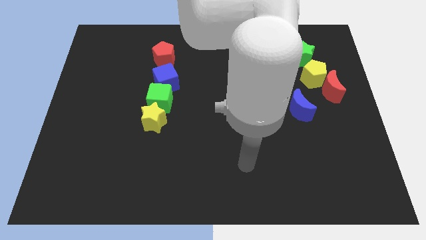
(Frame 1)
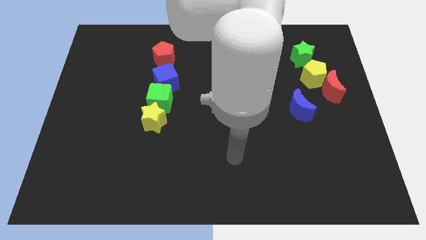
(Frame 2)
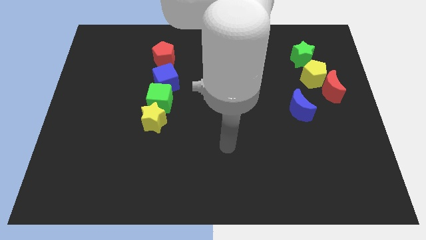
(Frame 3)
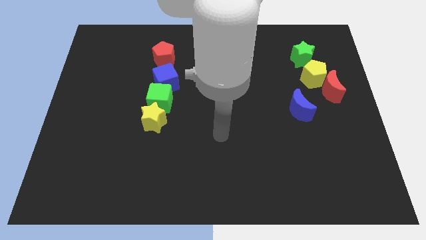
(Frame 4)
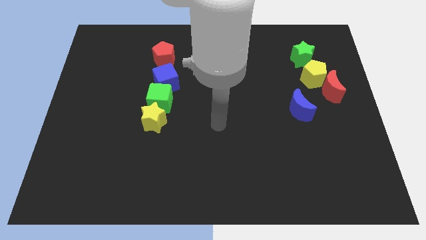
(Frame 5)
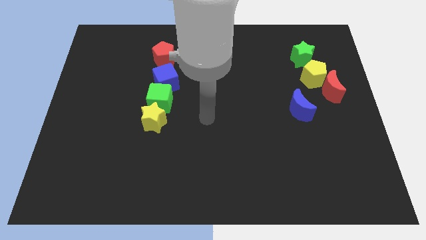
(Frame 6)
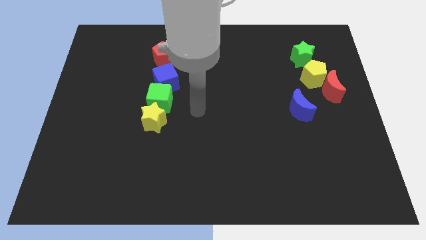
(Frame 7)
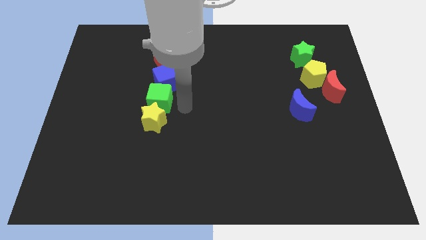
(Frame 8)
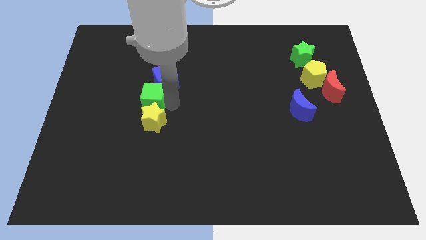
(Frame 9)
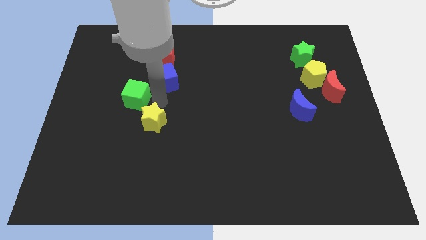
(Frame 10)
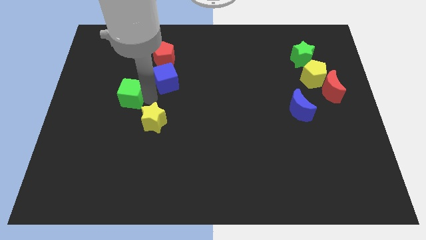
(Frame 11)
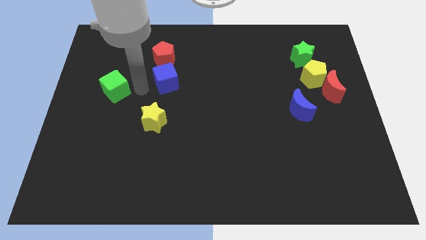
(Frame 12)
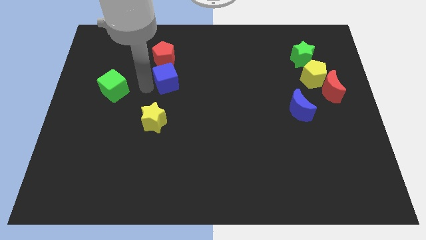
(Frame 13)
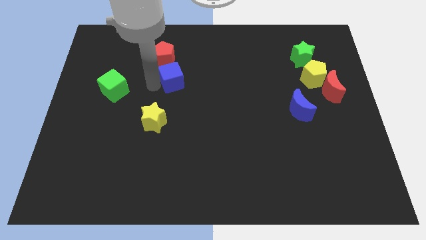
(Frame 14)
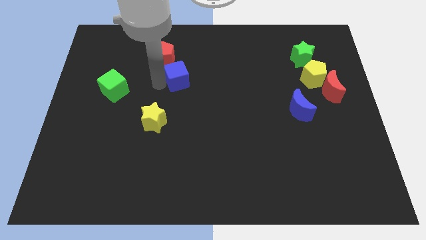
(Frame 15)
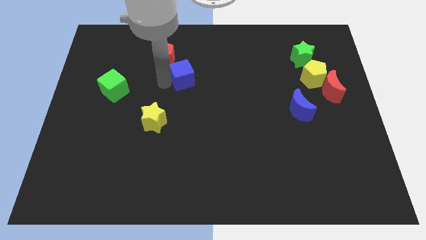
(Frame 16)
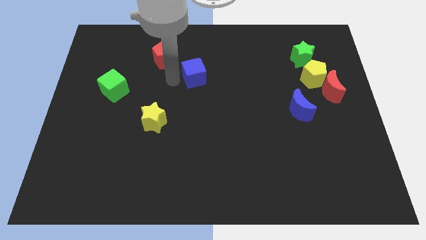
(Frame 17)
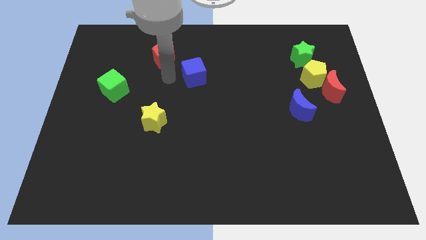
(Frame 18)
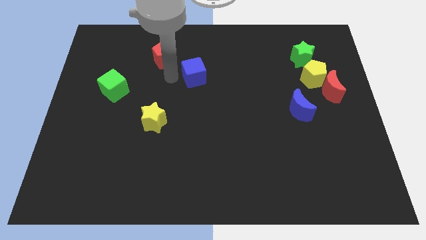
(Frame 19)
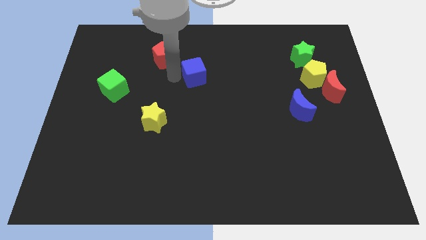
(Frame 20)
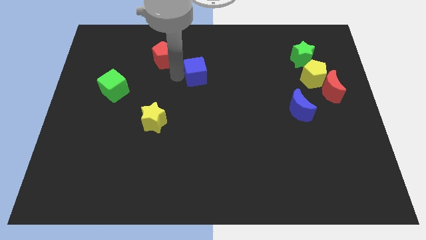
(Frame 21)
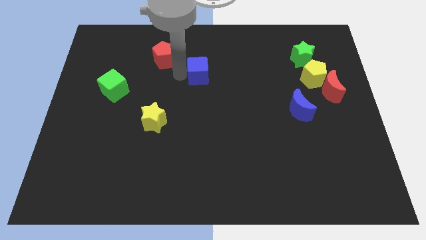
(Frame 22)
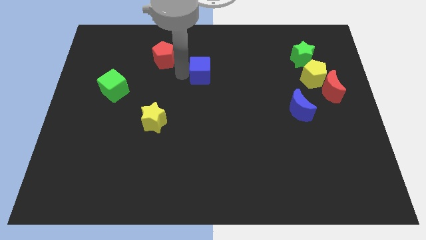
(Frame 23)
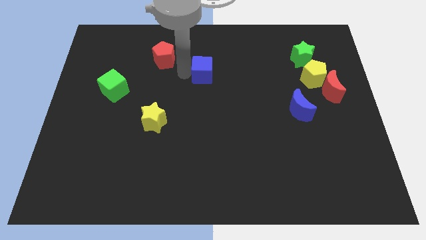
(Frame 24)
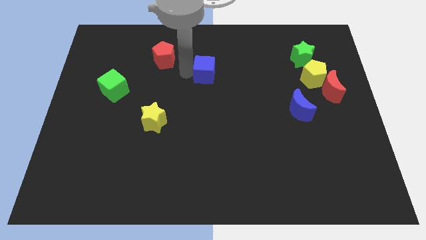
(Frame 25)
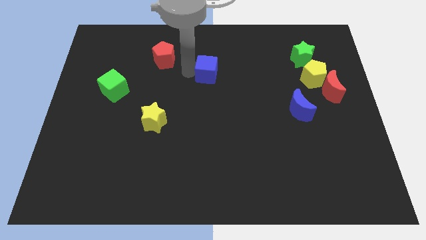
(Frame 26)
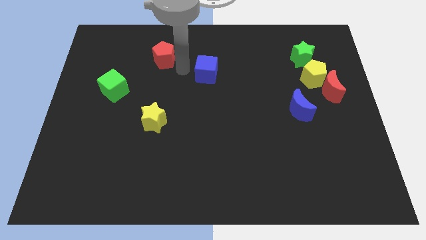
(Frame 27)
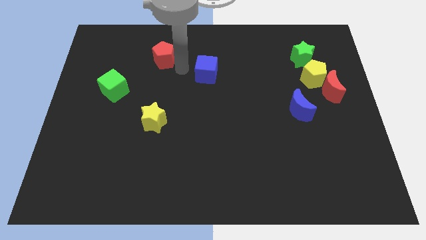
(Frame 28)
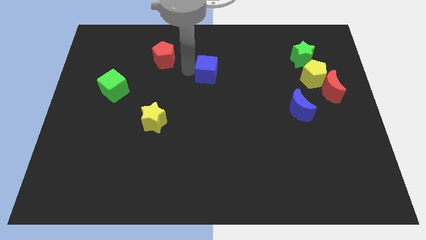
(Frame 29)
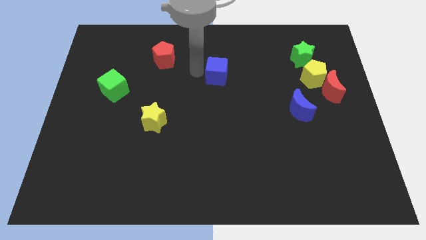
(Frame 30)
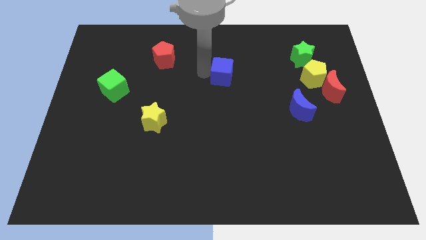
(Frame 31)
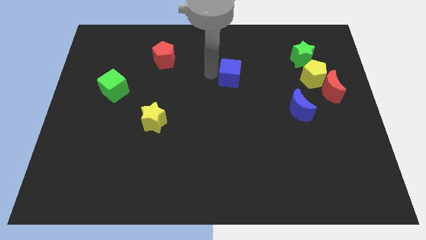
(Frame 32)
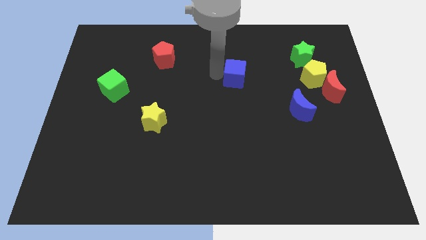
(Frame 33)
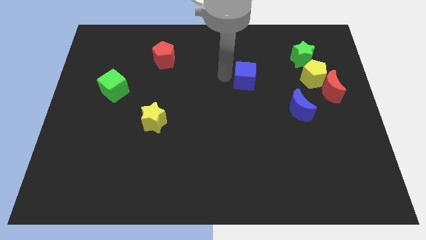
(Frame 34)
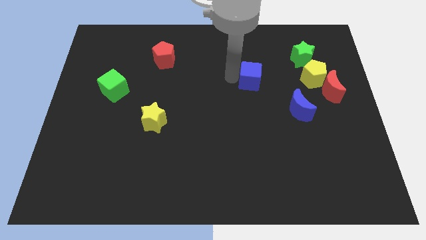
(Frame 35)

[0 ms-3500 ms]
push the blue cube right

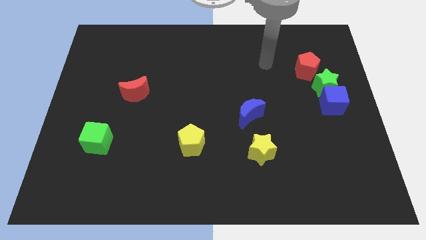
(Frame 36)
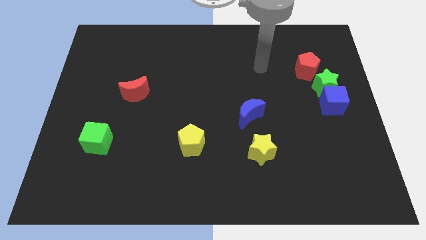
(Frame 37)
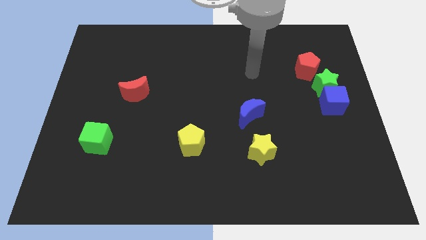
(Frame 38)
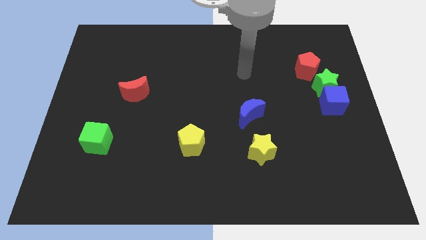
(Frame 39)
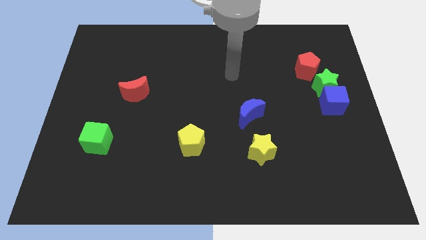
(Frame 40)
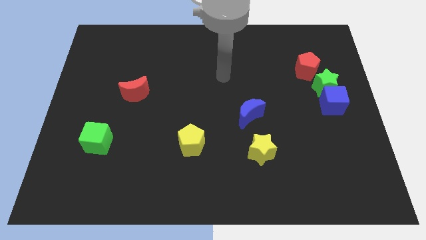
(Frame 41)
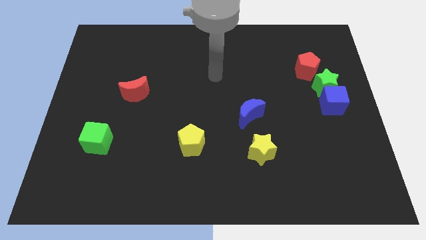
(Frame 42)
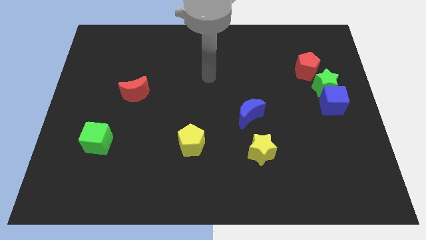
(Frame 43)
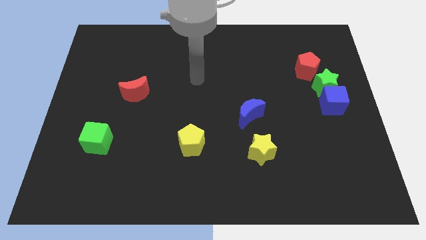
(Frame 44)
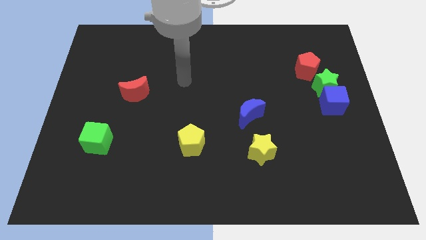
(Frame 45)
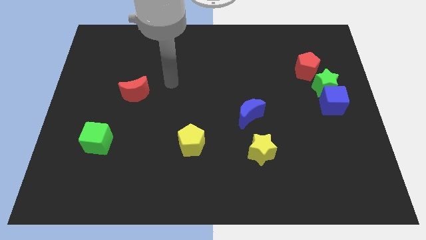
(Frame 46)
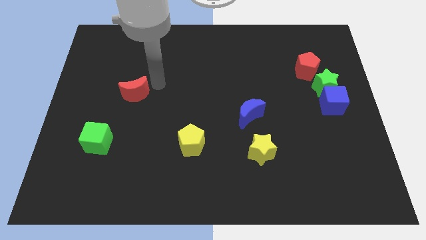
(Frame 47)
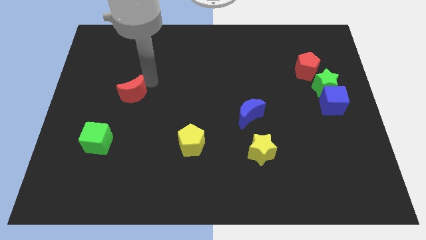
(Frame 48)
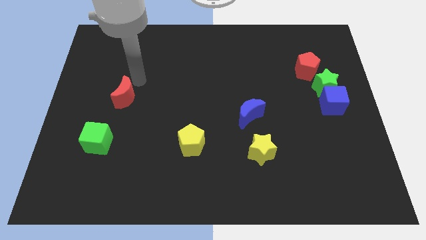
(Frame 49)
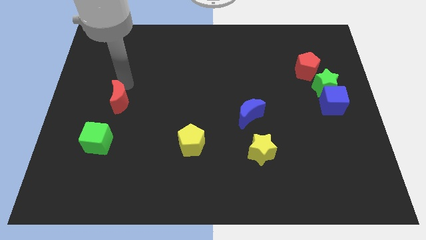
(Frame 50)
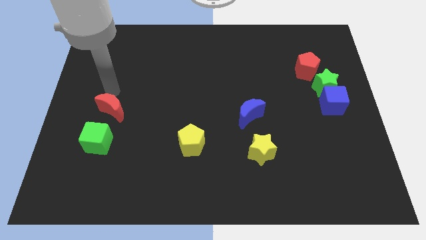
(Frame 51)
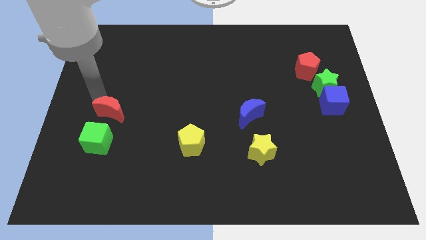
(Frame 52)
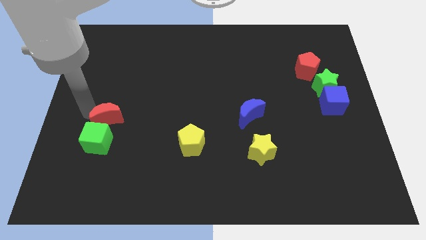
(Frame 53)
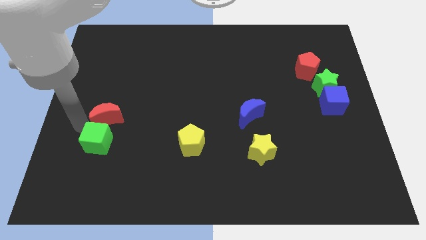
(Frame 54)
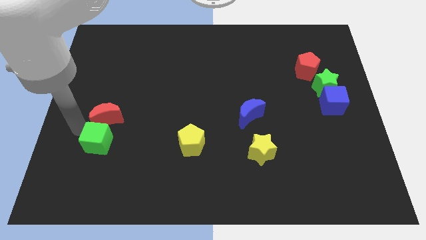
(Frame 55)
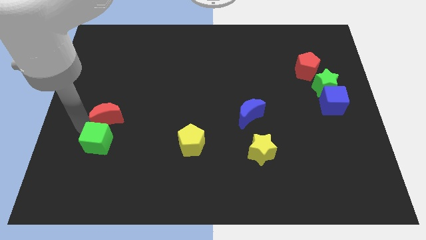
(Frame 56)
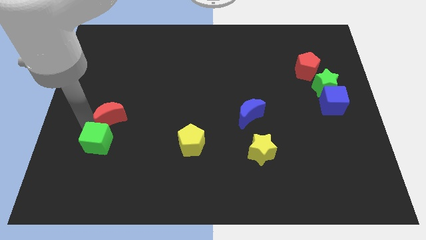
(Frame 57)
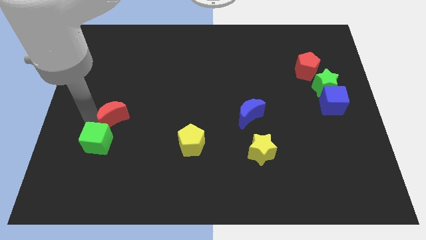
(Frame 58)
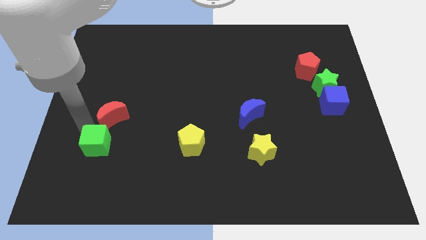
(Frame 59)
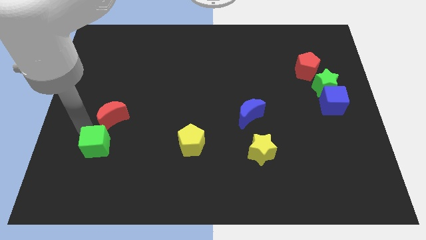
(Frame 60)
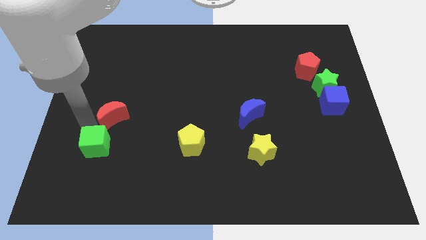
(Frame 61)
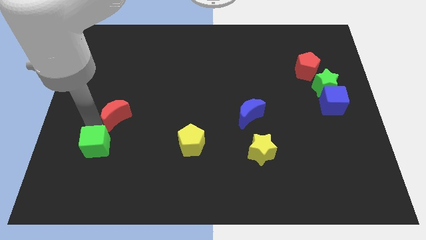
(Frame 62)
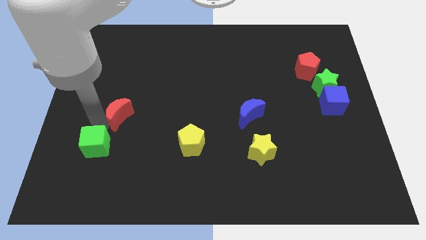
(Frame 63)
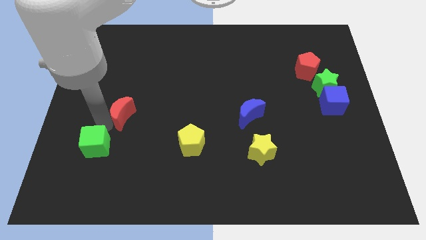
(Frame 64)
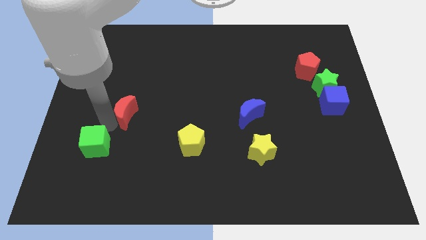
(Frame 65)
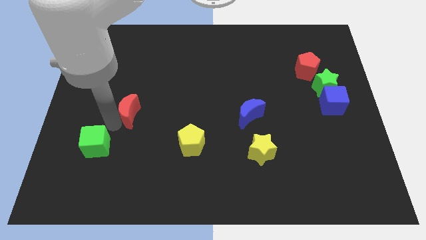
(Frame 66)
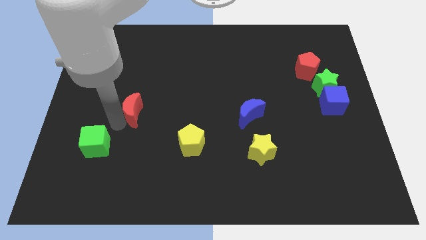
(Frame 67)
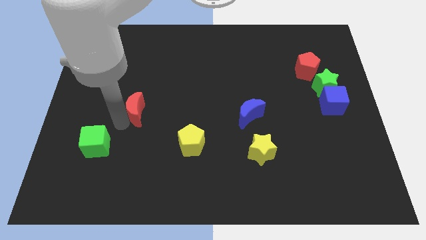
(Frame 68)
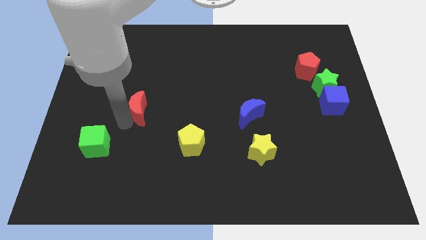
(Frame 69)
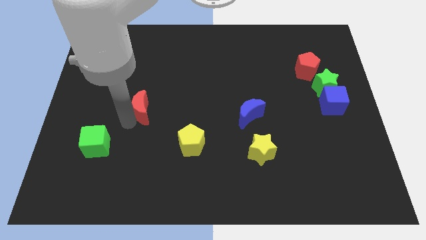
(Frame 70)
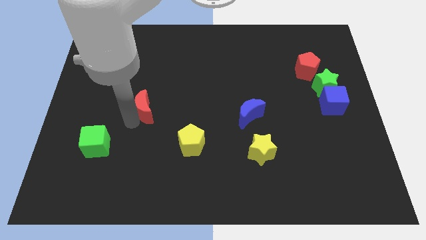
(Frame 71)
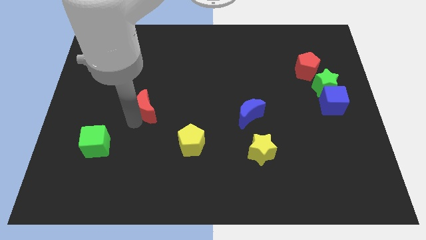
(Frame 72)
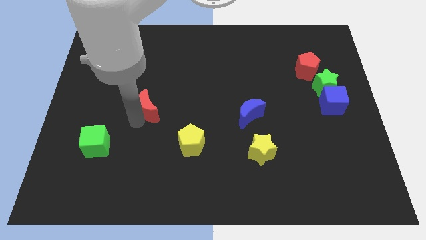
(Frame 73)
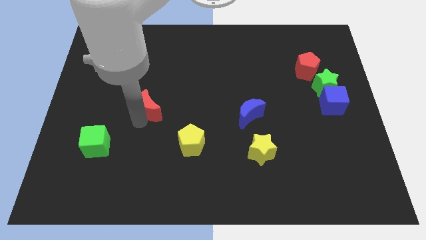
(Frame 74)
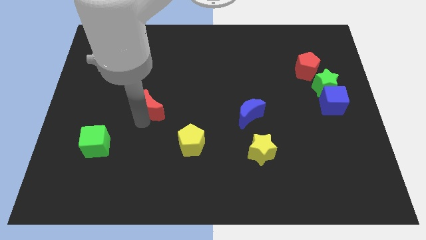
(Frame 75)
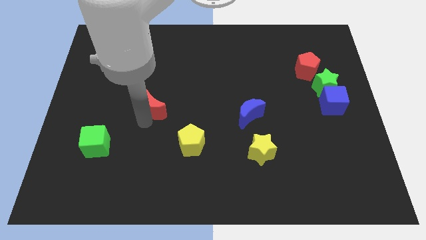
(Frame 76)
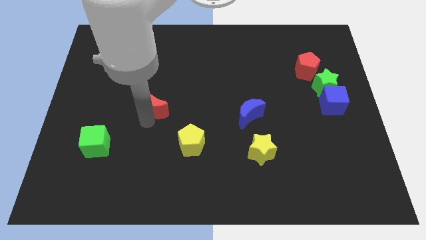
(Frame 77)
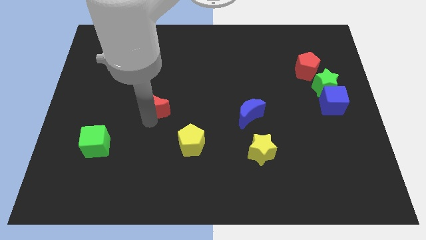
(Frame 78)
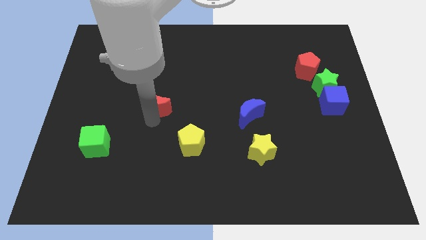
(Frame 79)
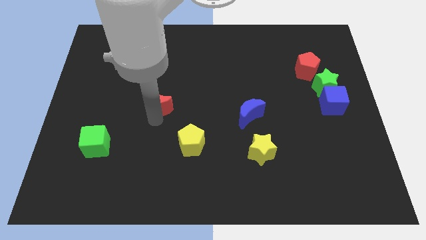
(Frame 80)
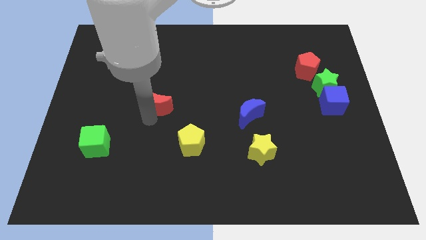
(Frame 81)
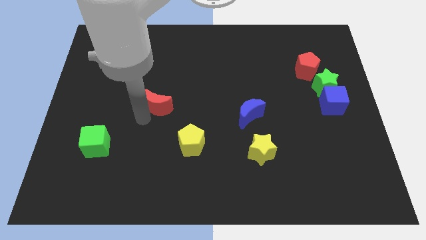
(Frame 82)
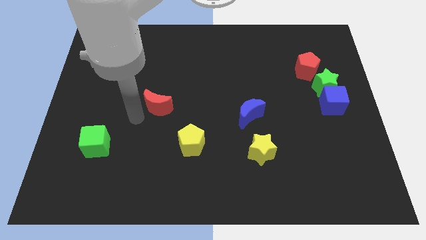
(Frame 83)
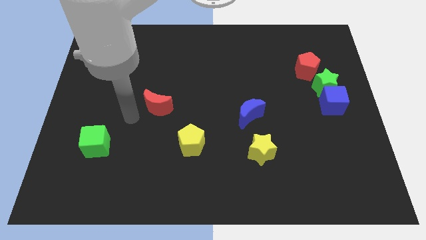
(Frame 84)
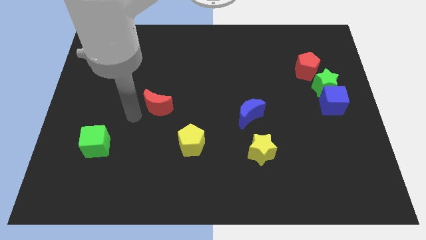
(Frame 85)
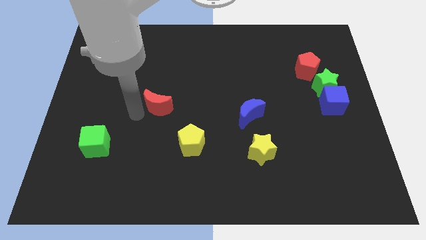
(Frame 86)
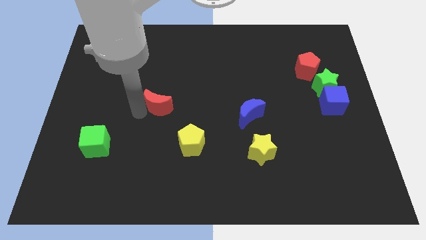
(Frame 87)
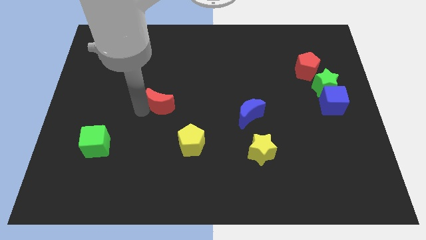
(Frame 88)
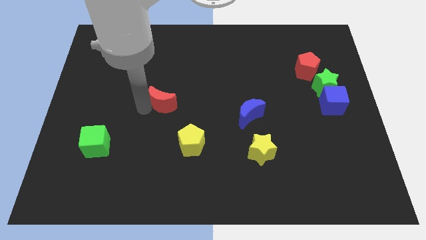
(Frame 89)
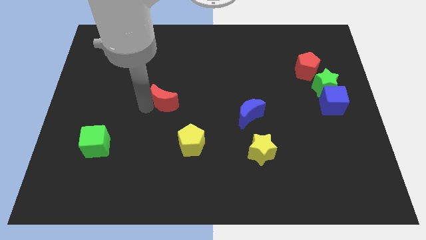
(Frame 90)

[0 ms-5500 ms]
slide the red moon slightly right
